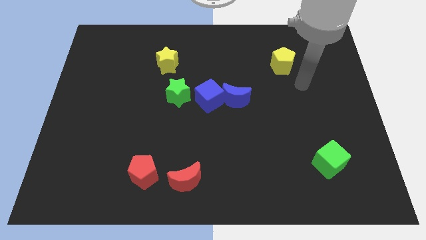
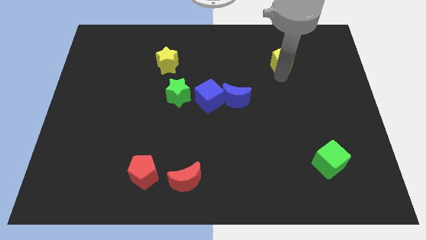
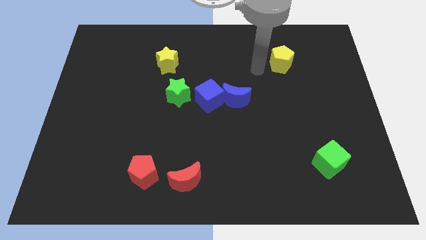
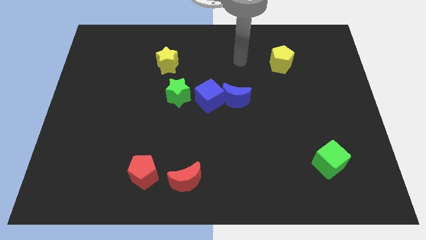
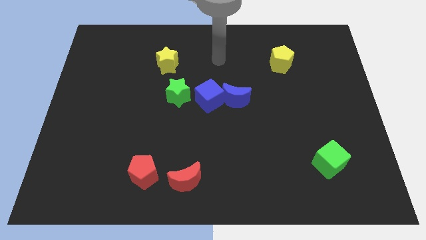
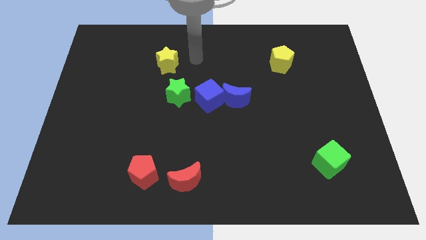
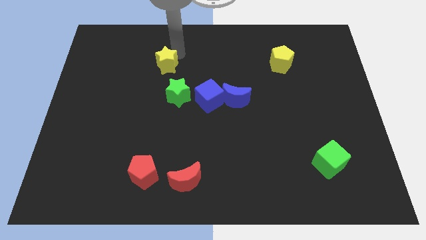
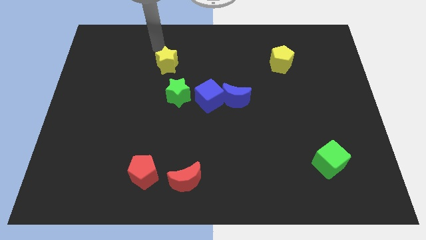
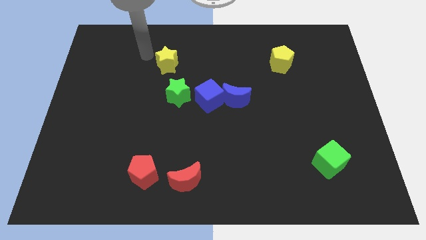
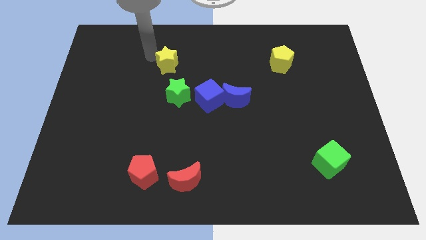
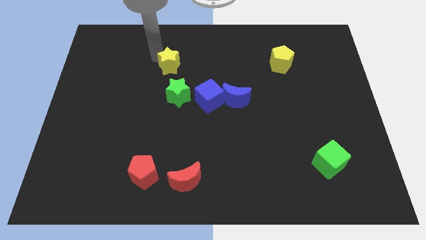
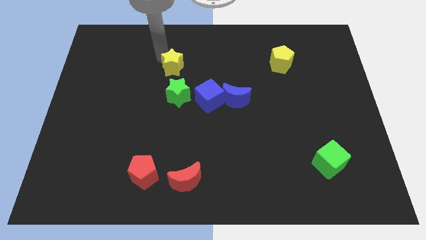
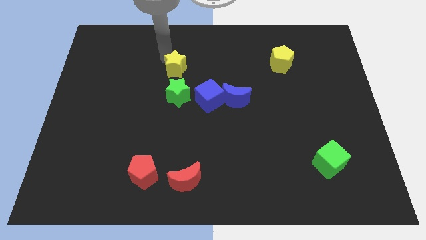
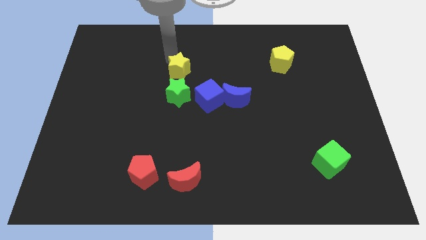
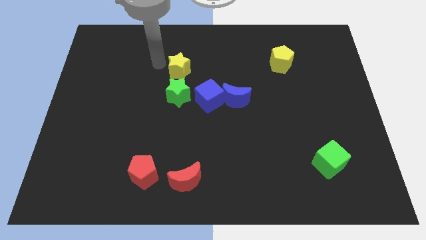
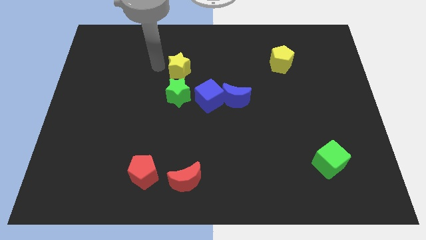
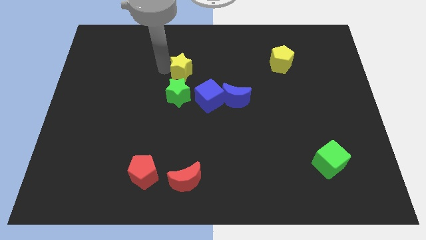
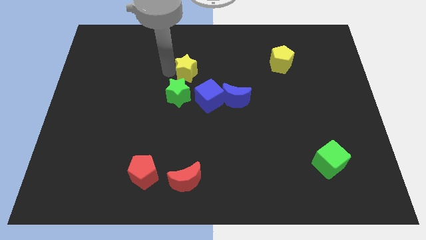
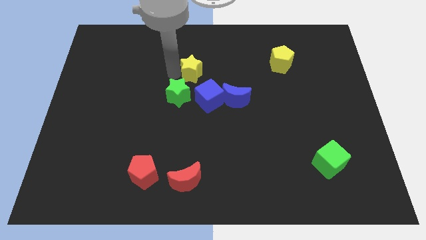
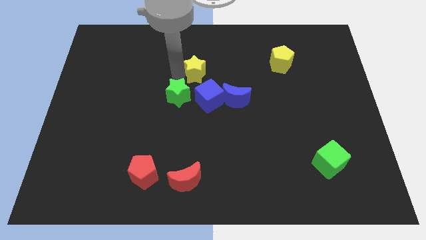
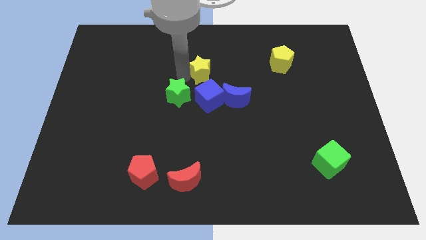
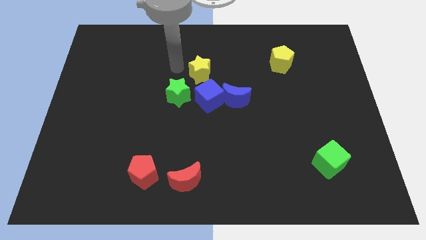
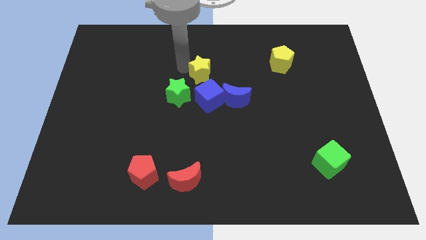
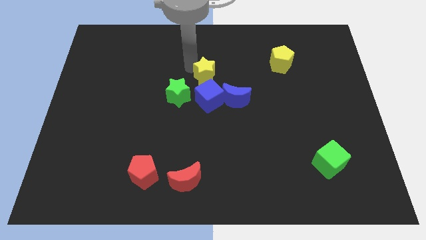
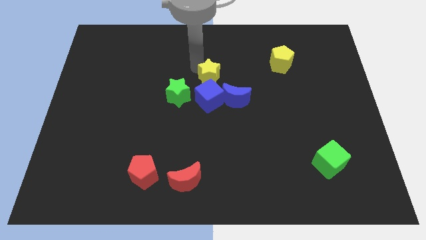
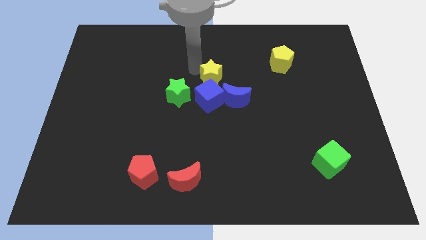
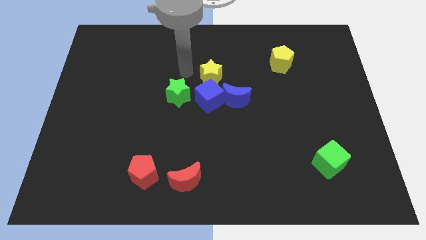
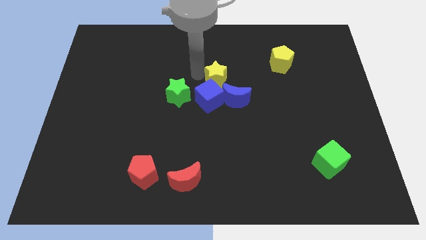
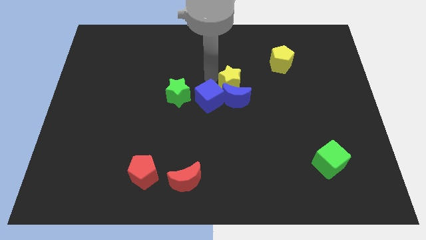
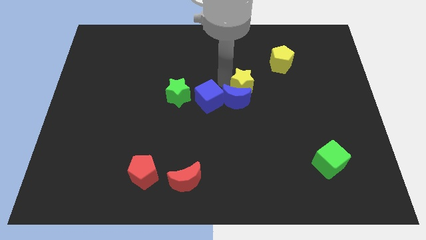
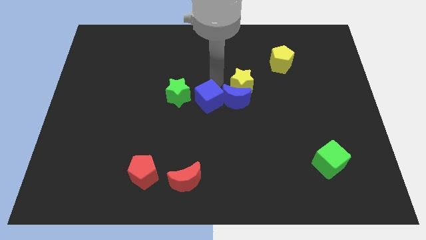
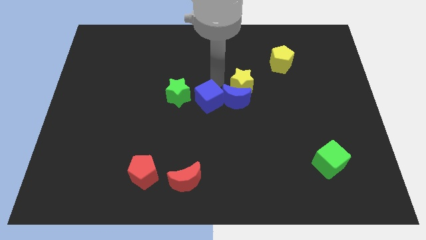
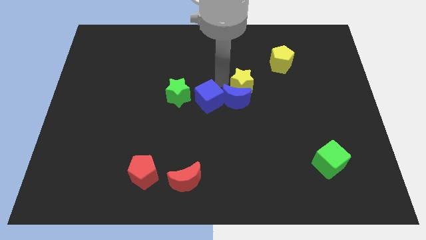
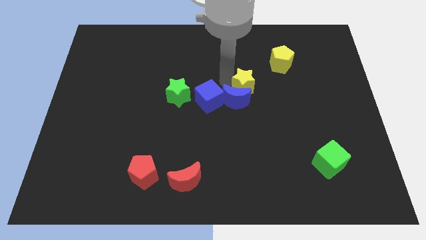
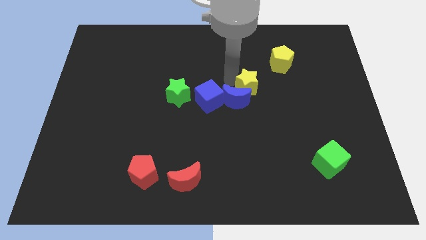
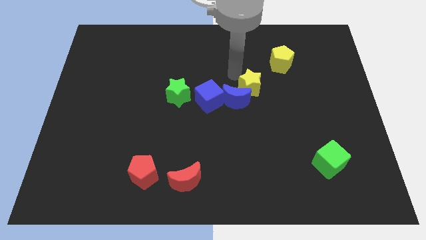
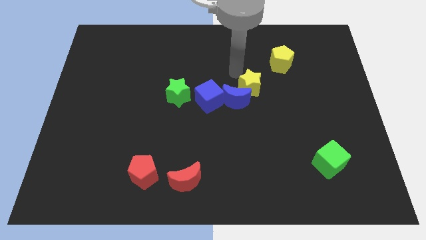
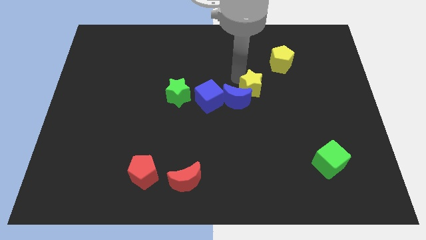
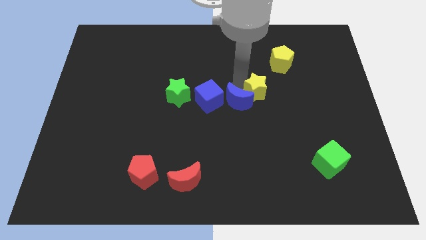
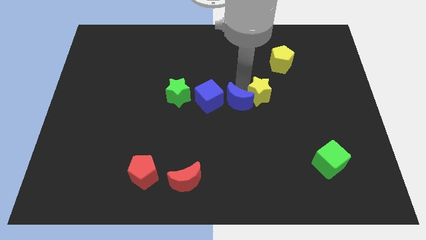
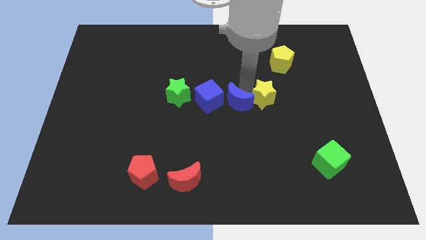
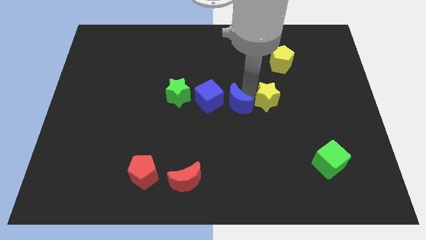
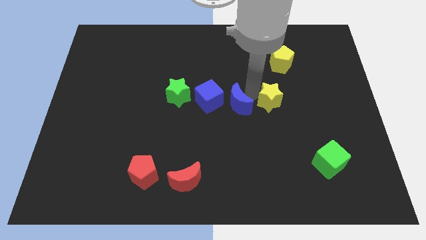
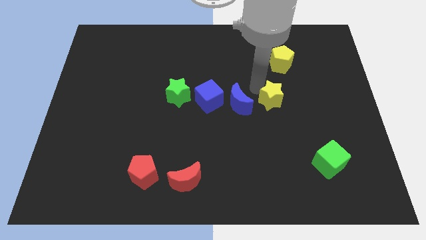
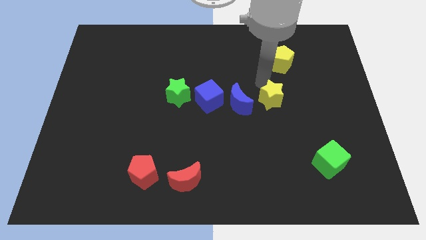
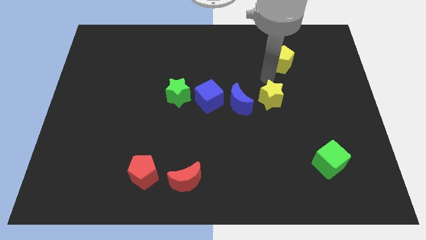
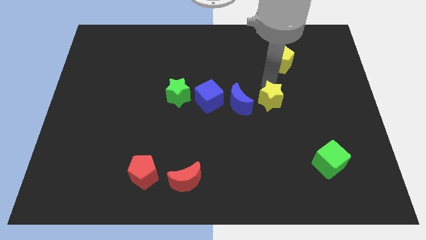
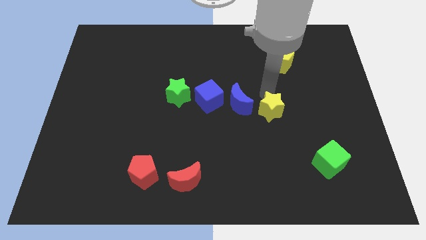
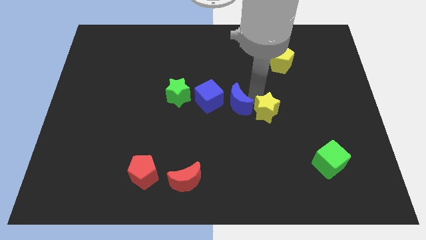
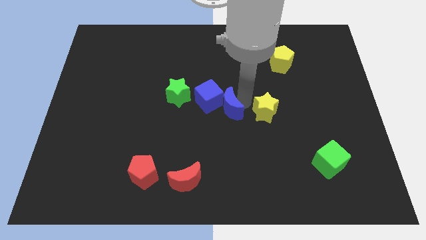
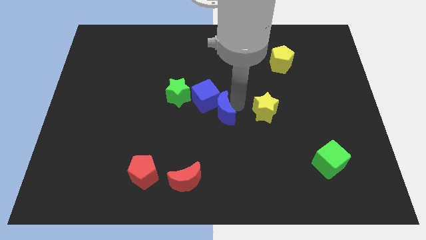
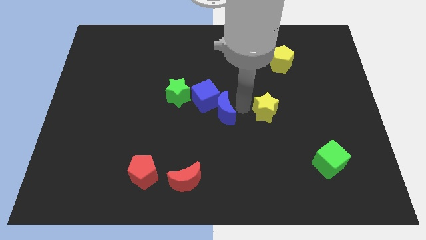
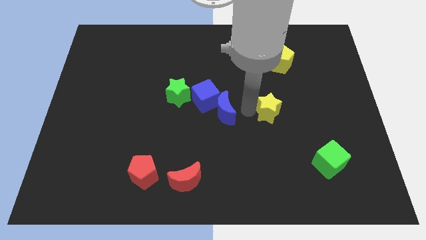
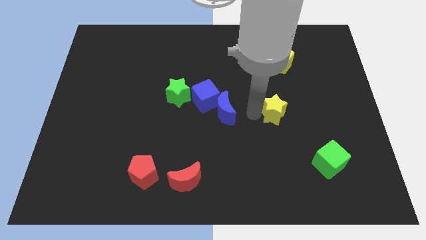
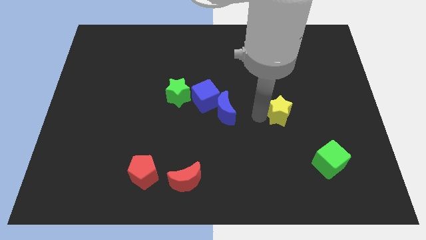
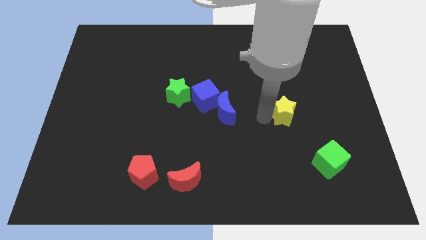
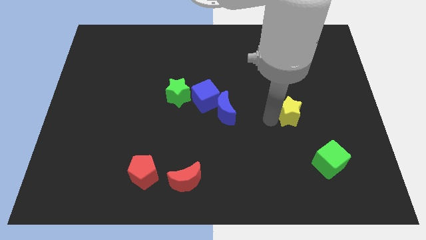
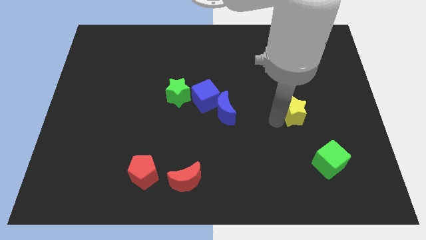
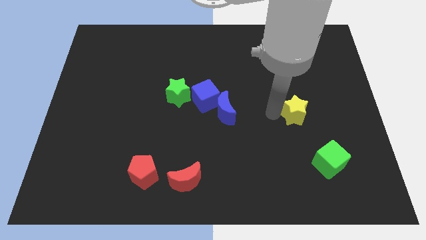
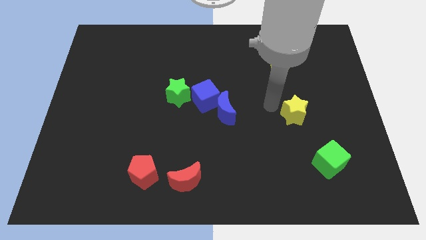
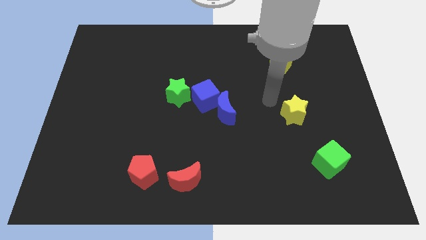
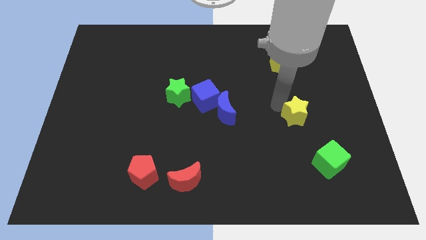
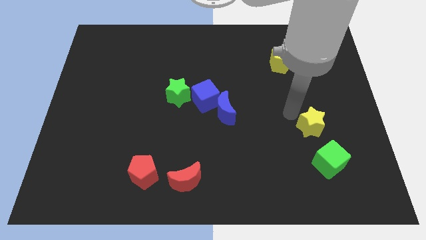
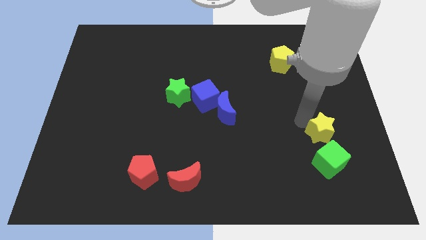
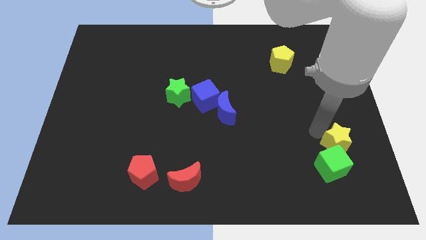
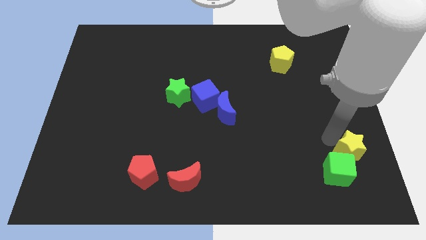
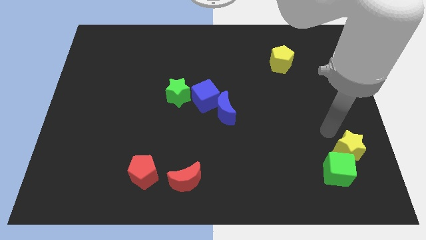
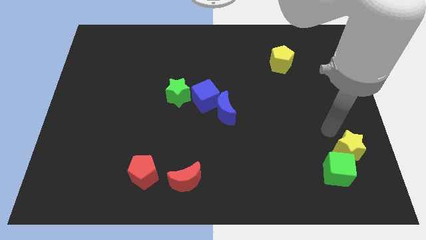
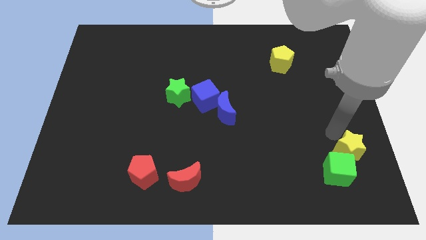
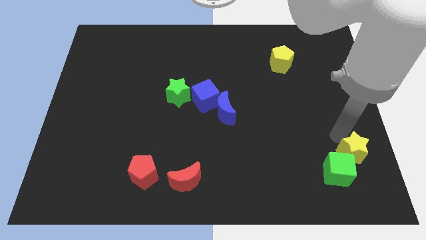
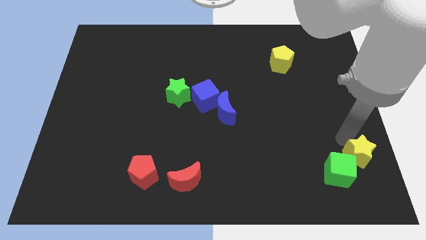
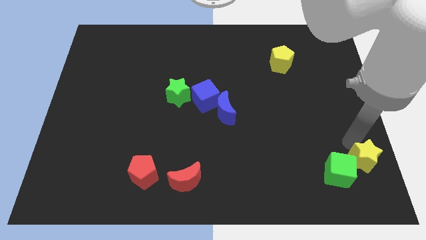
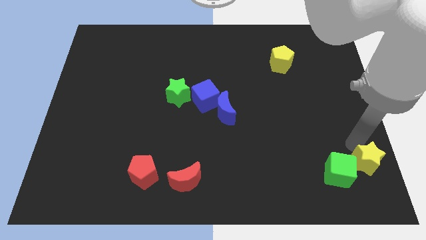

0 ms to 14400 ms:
push the yellow star to the bottom right corner
